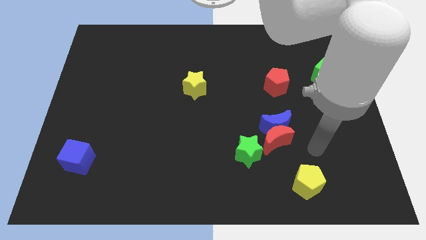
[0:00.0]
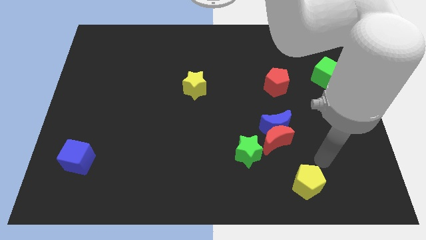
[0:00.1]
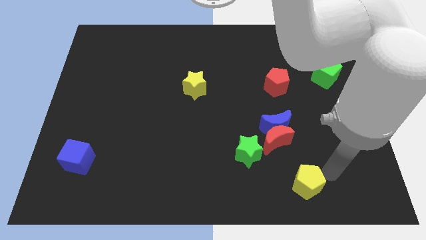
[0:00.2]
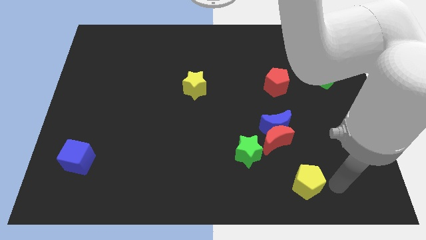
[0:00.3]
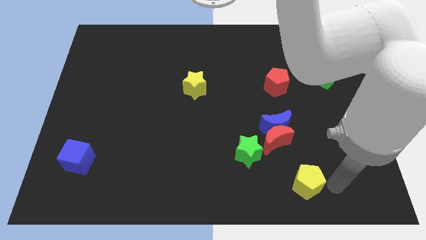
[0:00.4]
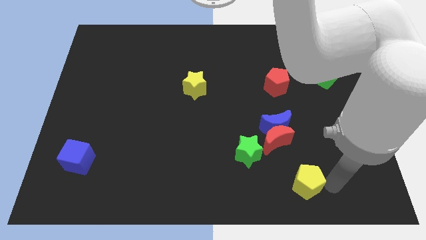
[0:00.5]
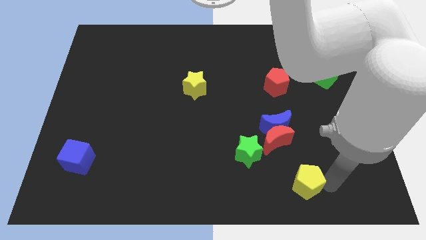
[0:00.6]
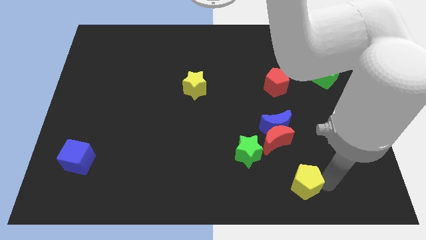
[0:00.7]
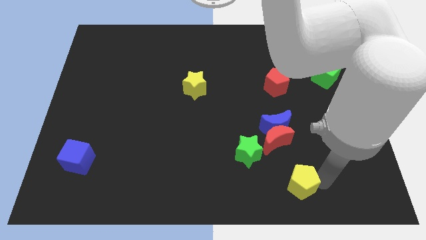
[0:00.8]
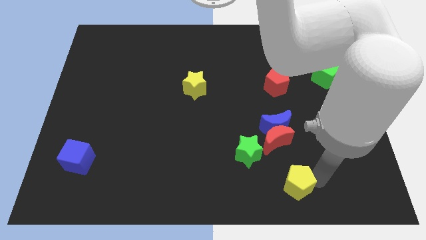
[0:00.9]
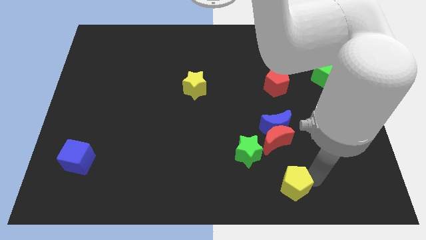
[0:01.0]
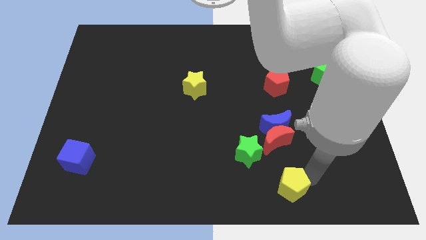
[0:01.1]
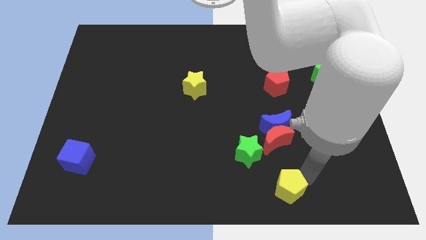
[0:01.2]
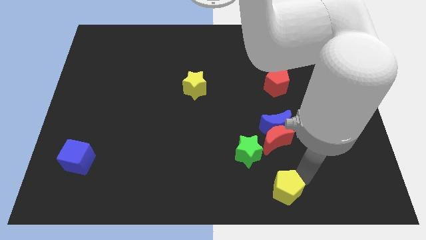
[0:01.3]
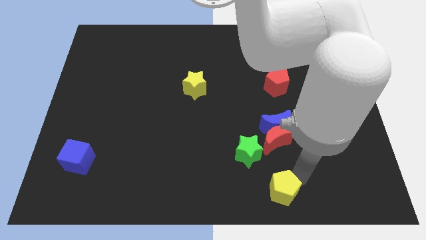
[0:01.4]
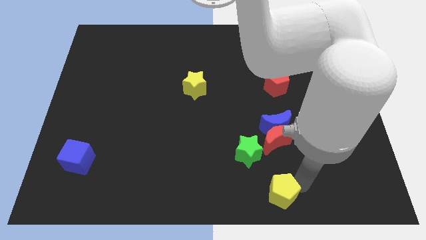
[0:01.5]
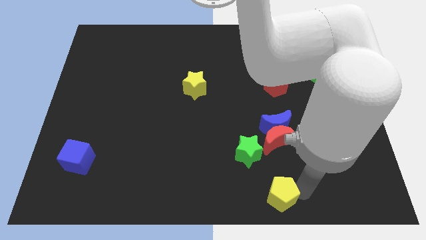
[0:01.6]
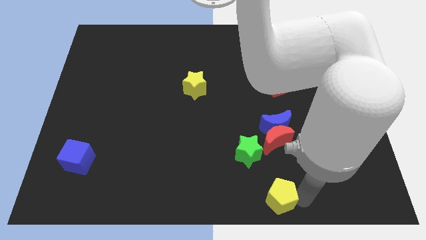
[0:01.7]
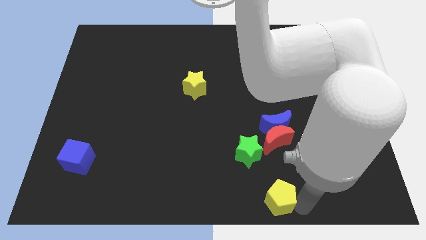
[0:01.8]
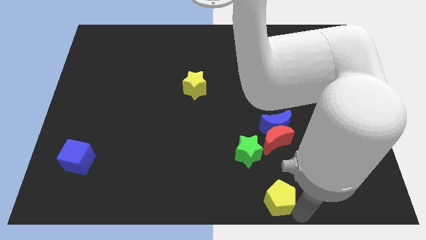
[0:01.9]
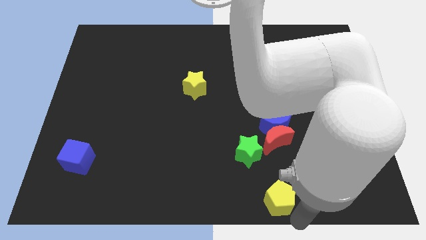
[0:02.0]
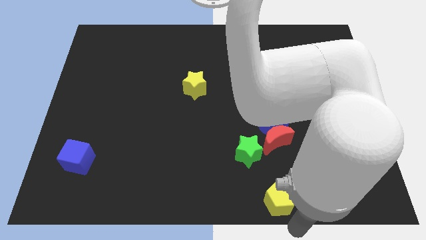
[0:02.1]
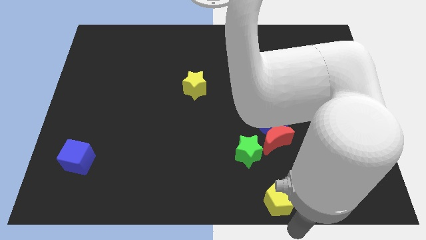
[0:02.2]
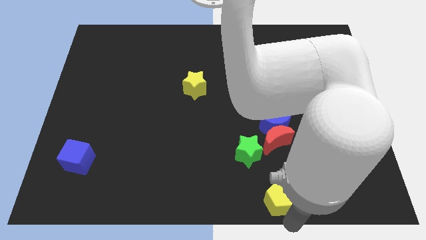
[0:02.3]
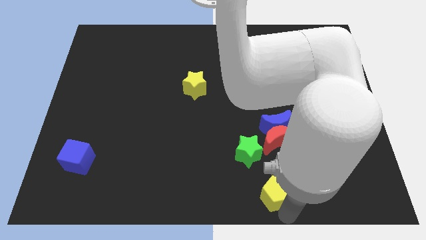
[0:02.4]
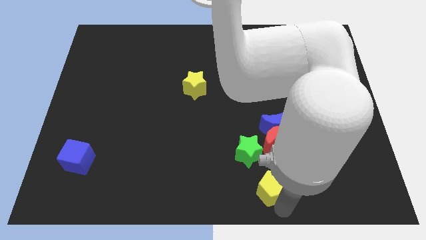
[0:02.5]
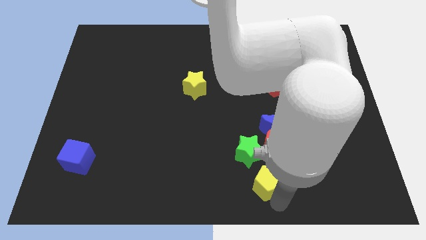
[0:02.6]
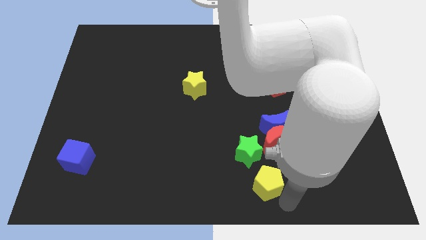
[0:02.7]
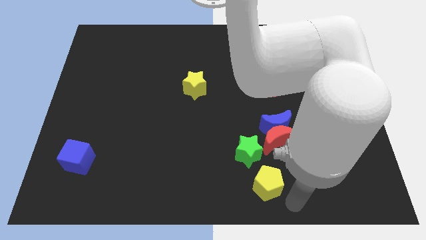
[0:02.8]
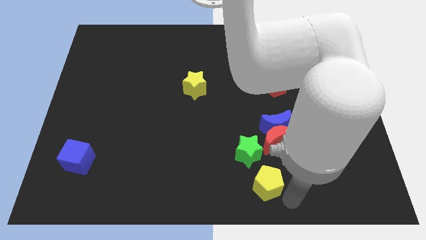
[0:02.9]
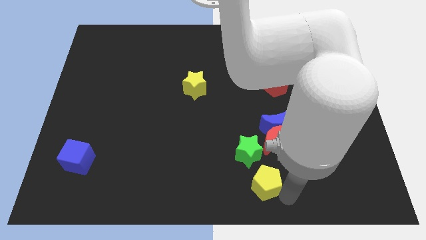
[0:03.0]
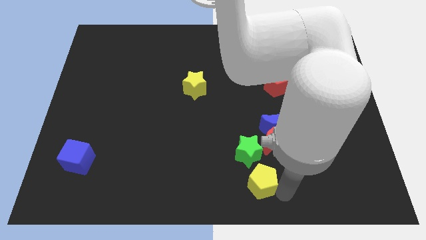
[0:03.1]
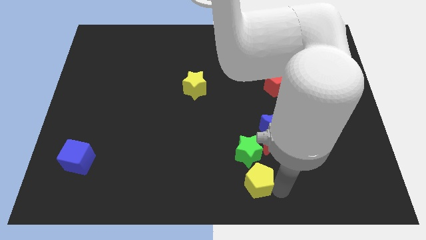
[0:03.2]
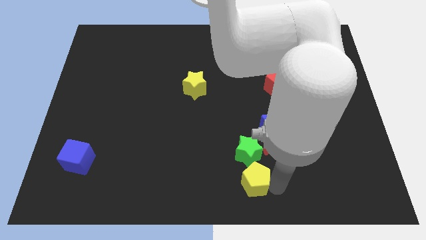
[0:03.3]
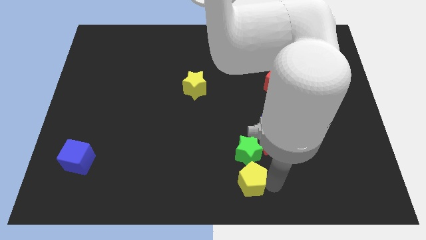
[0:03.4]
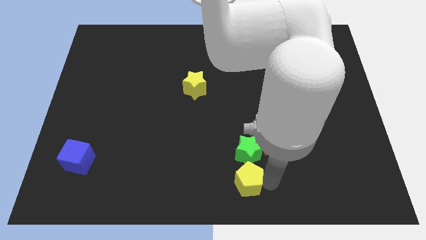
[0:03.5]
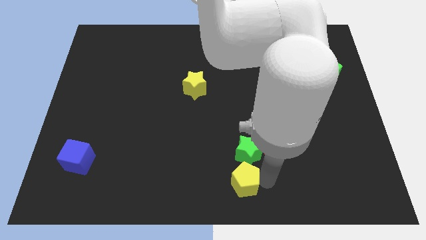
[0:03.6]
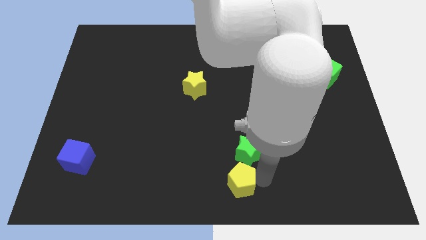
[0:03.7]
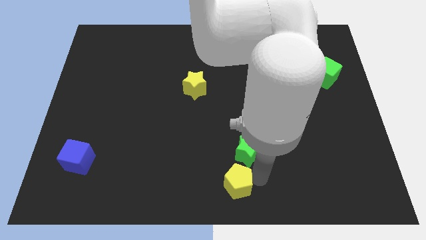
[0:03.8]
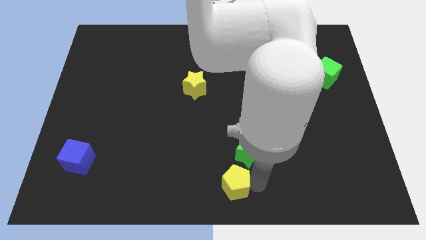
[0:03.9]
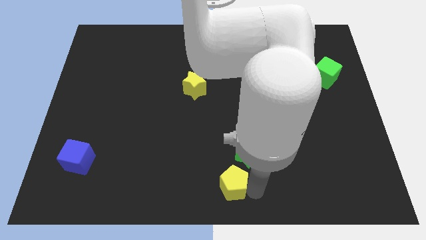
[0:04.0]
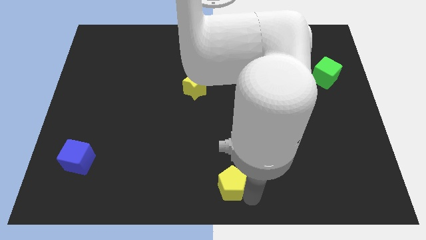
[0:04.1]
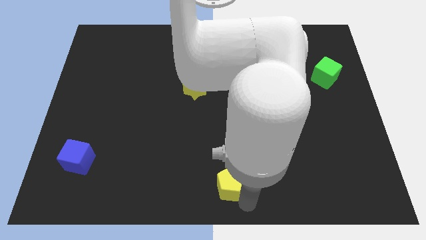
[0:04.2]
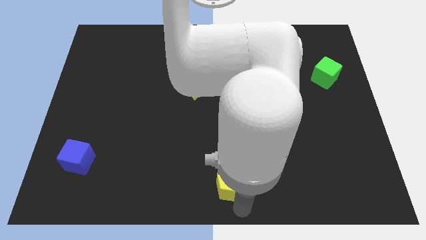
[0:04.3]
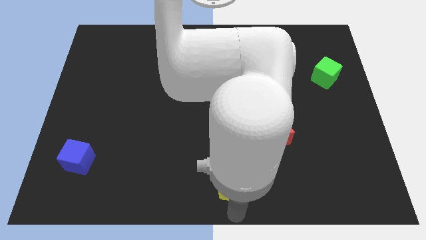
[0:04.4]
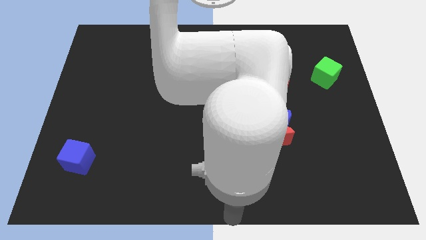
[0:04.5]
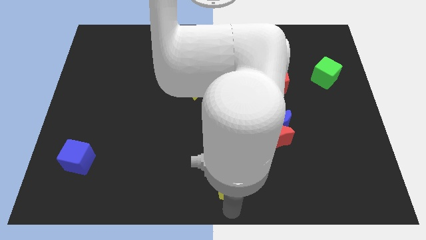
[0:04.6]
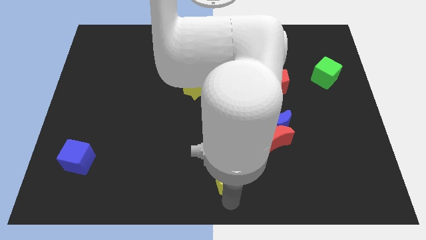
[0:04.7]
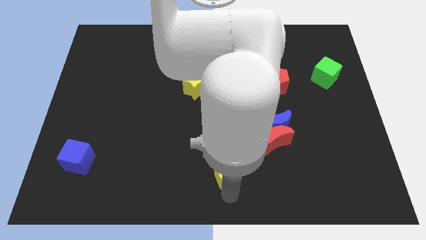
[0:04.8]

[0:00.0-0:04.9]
push the yellow pentagon a little bit diagonally up and left

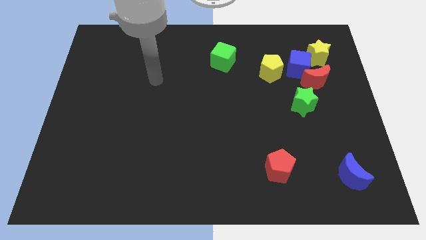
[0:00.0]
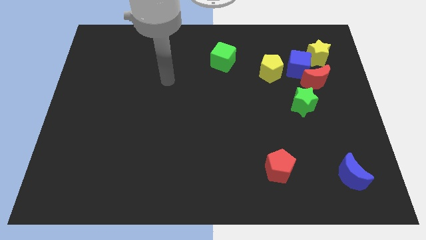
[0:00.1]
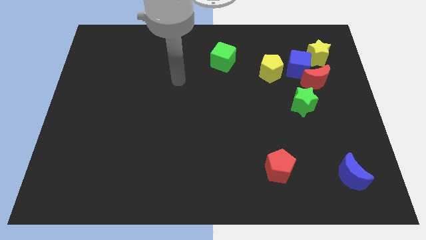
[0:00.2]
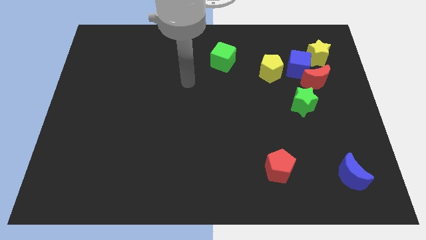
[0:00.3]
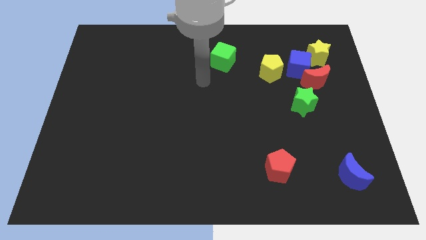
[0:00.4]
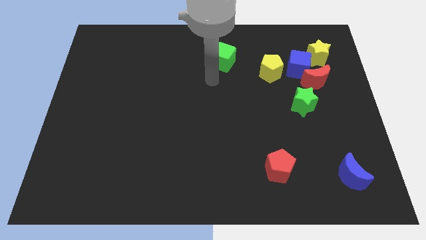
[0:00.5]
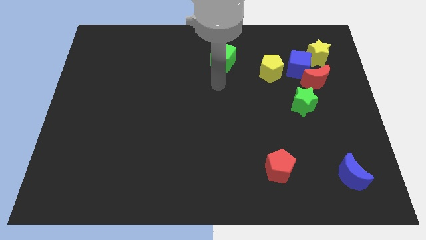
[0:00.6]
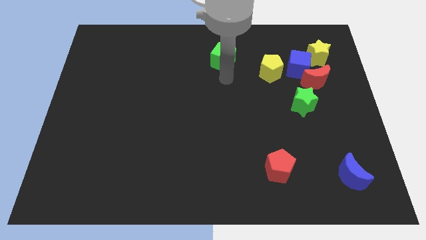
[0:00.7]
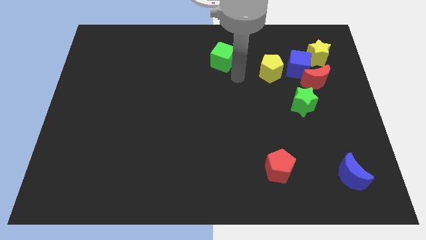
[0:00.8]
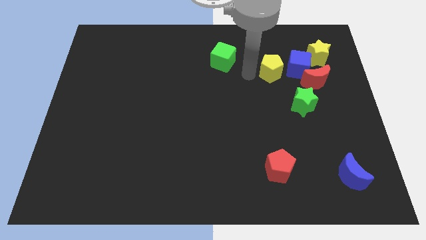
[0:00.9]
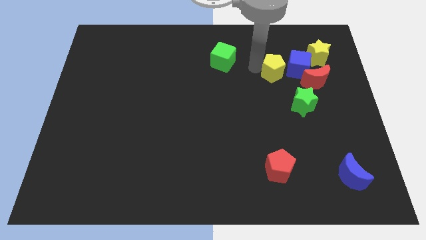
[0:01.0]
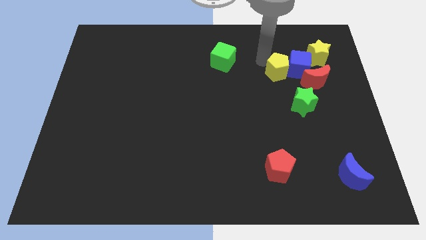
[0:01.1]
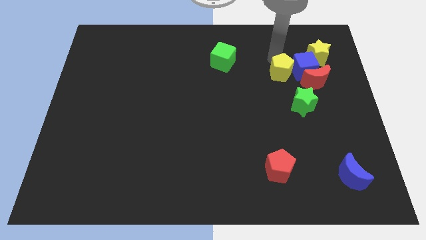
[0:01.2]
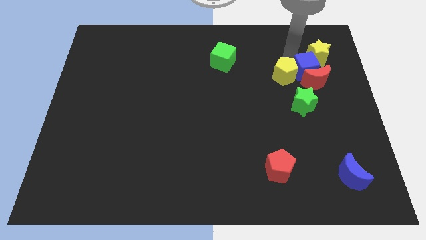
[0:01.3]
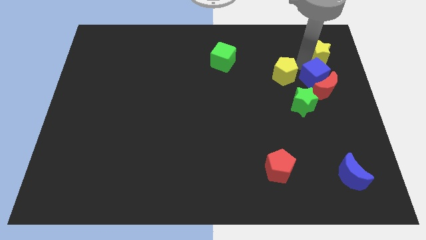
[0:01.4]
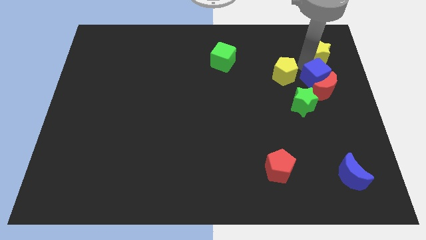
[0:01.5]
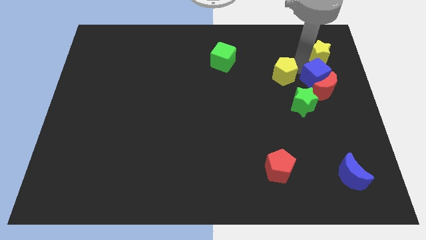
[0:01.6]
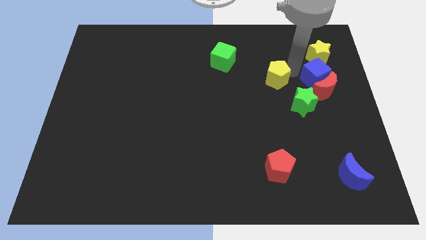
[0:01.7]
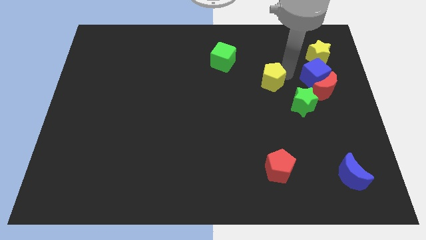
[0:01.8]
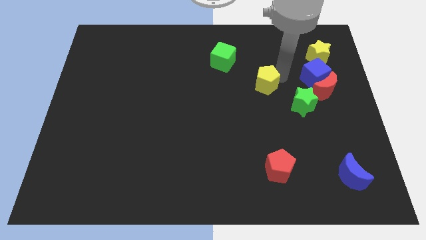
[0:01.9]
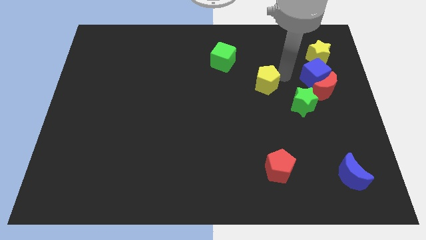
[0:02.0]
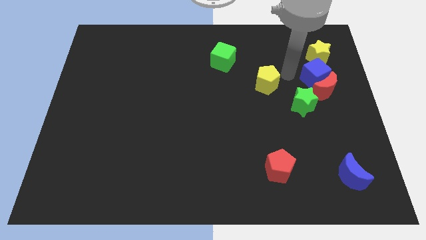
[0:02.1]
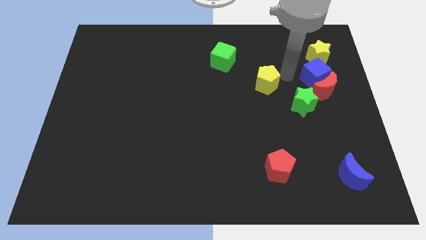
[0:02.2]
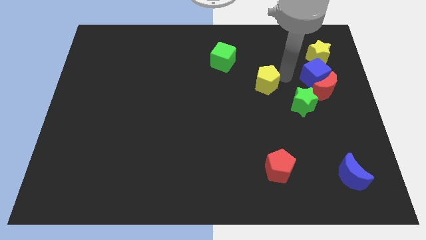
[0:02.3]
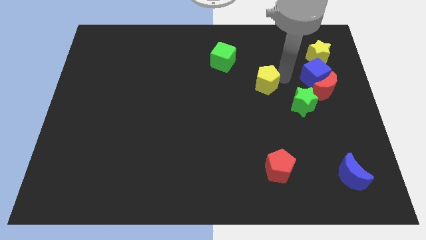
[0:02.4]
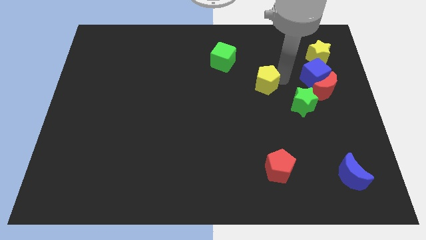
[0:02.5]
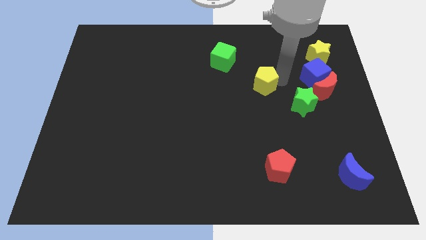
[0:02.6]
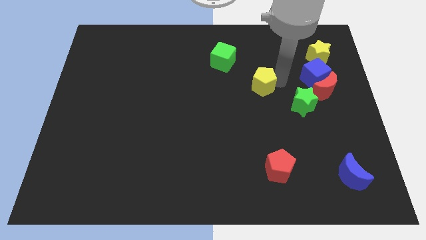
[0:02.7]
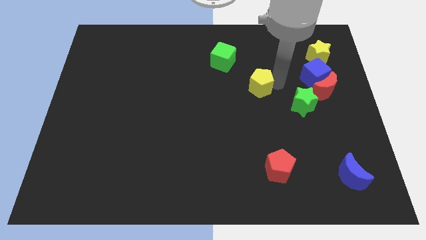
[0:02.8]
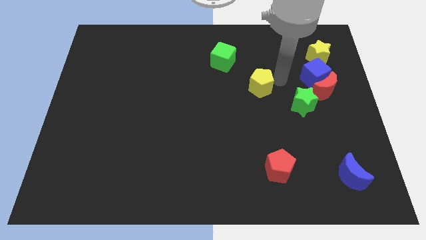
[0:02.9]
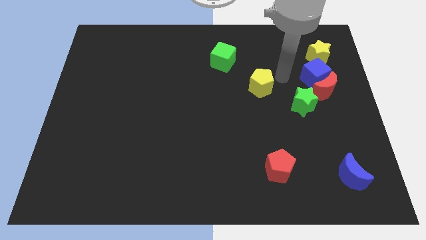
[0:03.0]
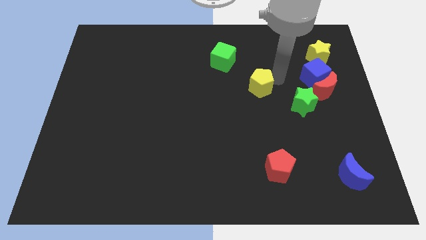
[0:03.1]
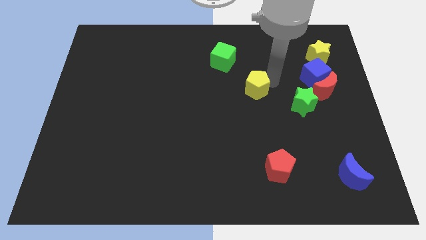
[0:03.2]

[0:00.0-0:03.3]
slide the yellow pentagon downwards and to the left diagonally a little bit
